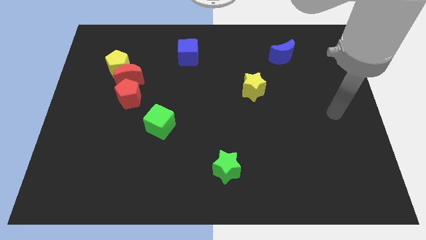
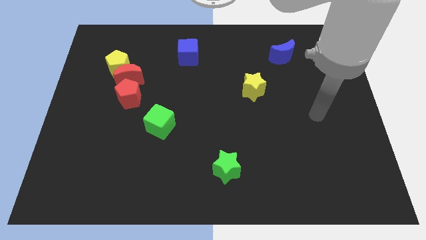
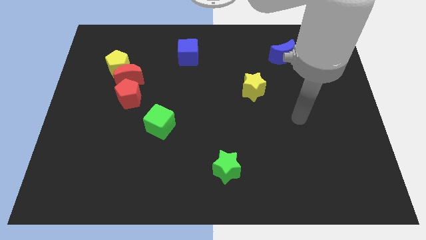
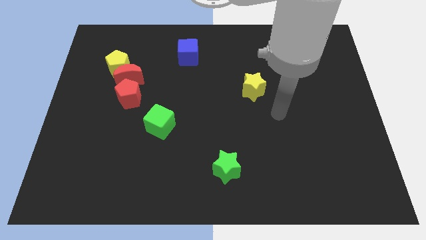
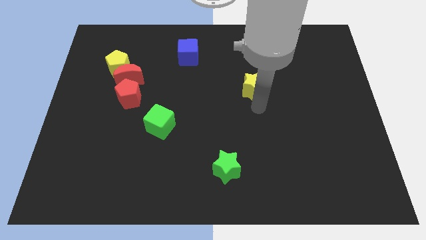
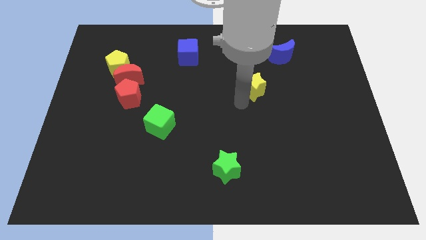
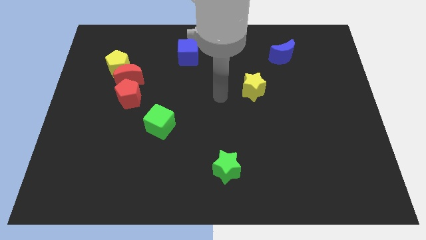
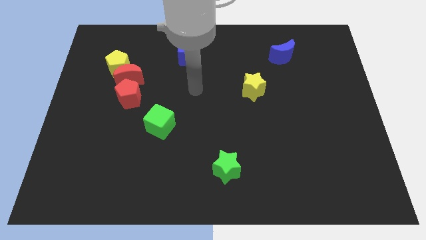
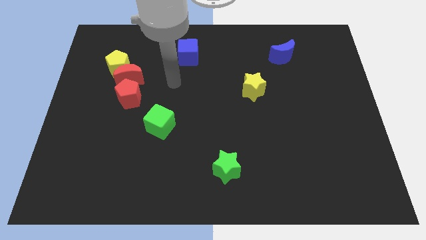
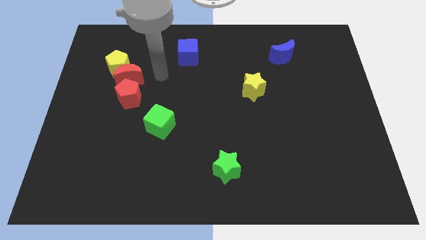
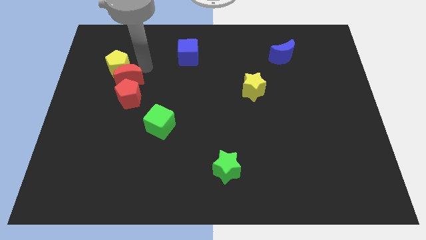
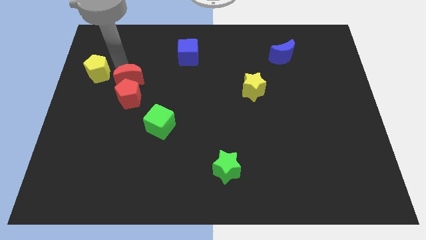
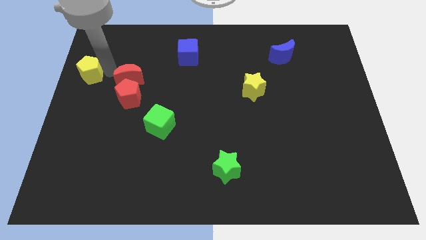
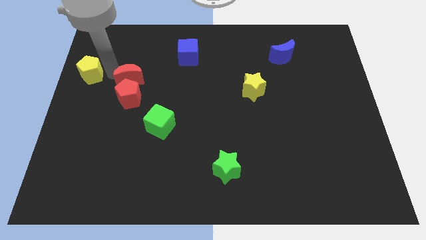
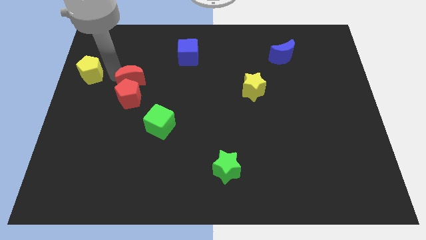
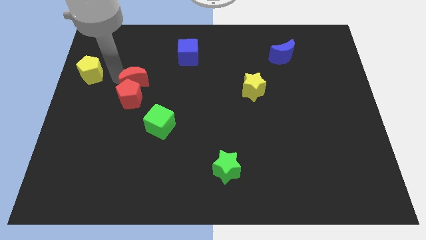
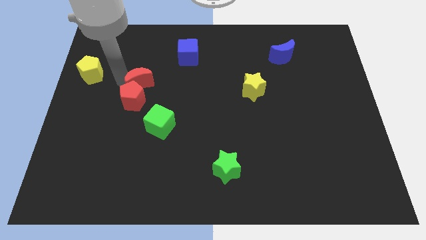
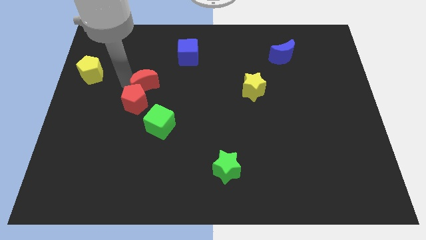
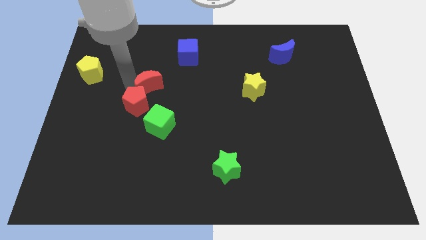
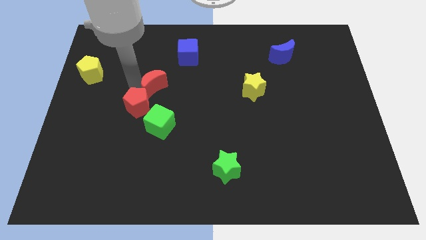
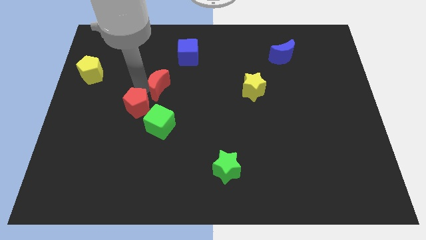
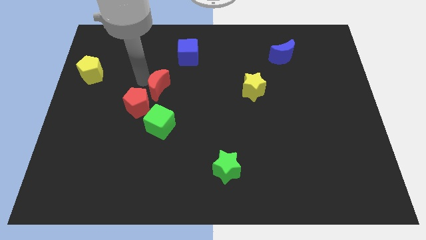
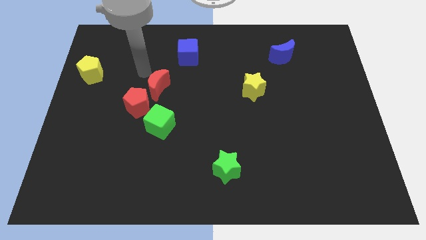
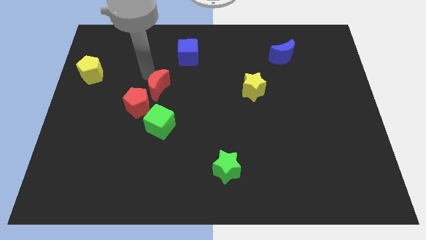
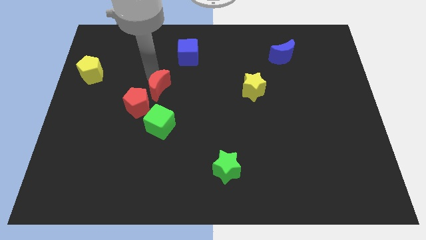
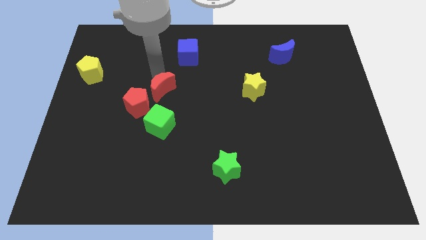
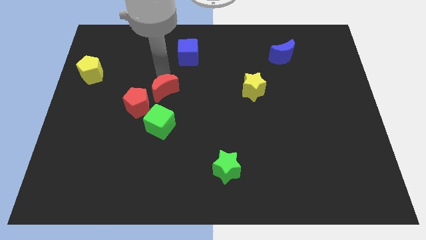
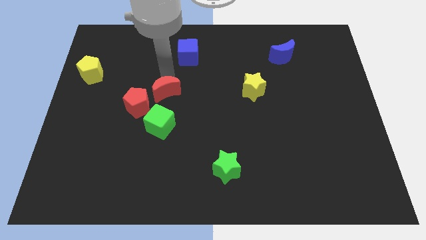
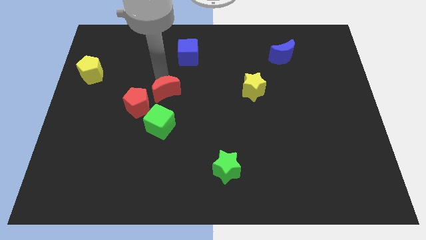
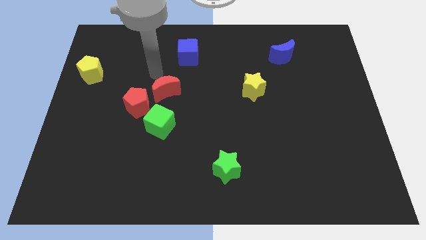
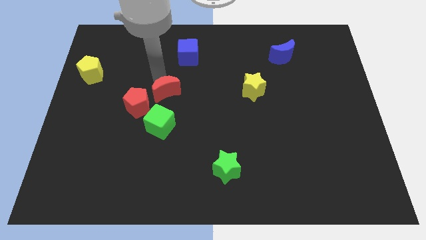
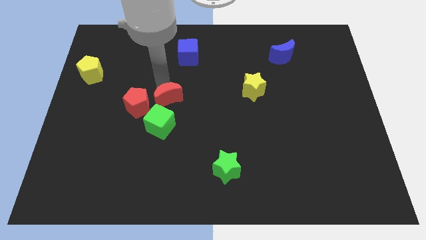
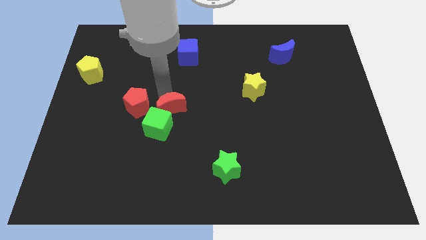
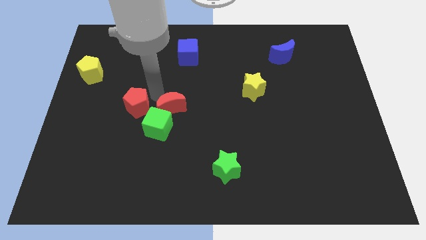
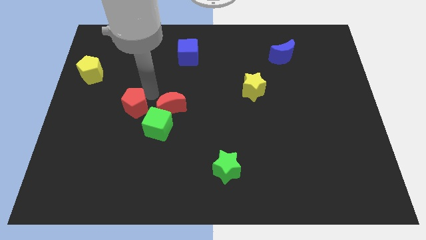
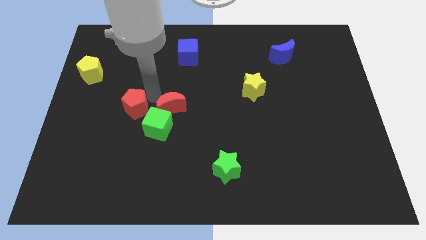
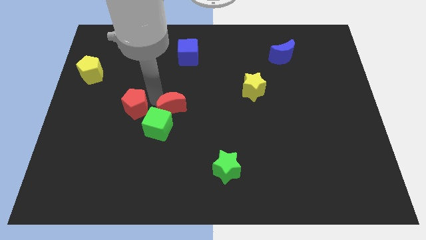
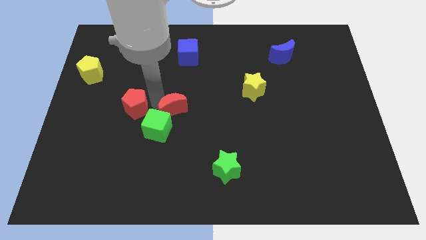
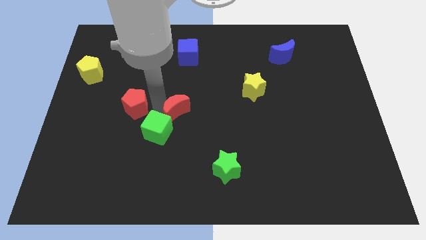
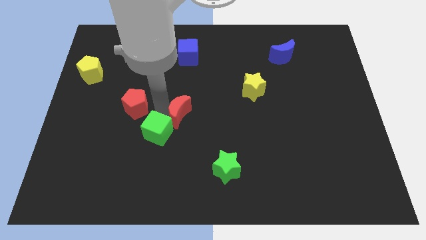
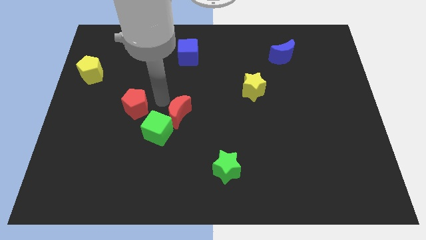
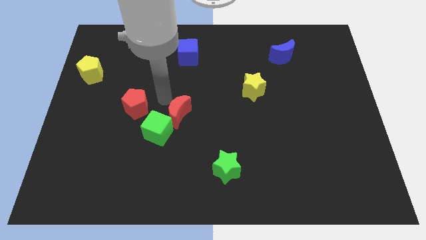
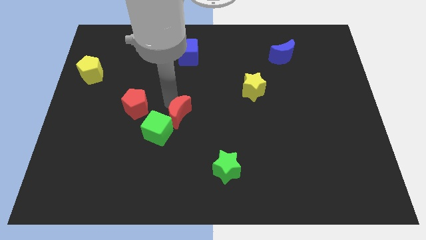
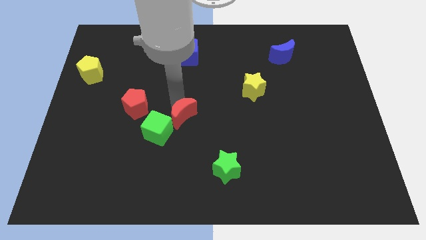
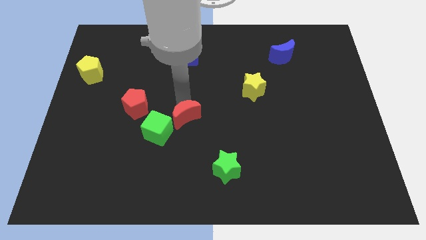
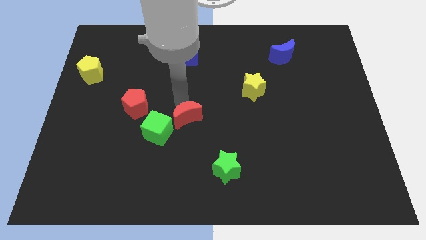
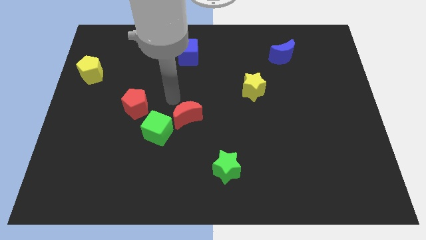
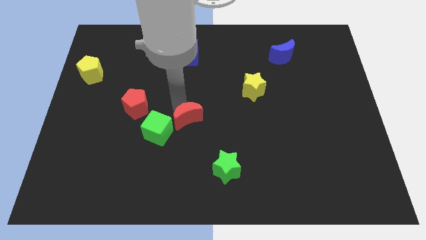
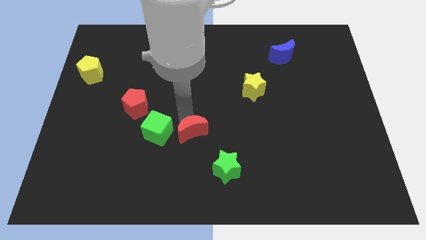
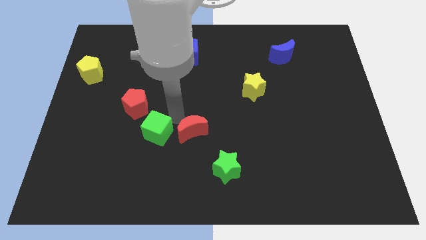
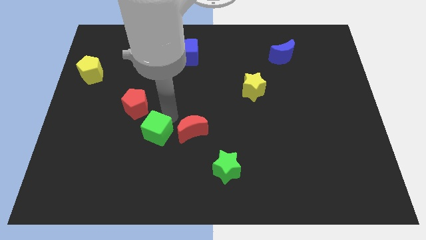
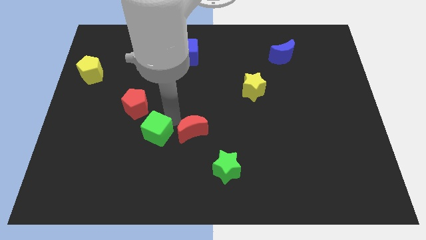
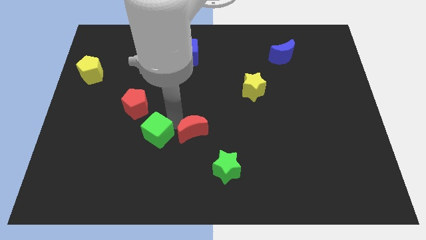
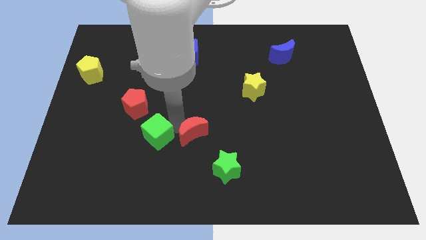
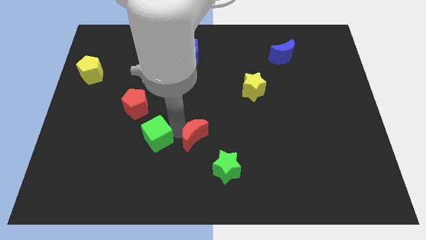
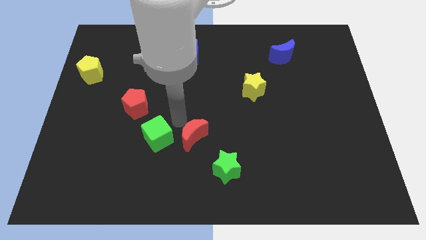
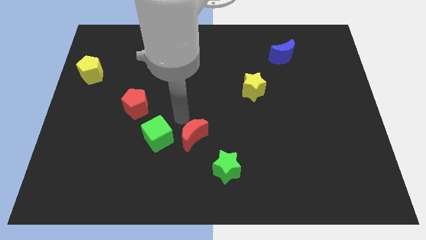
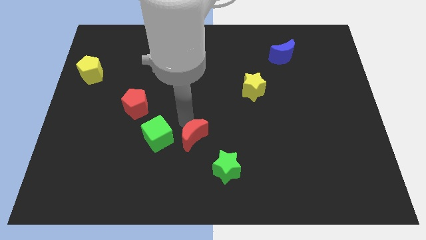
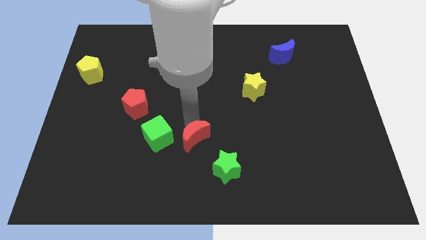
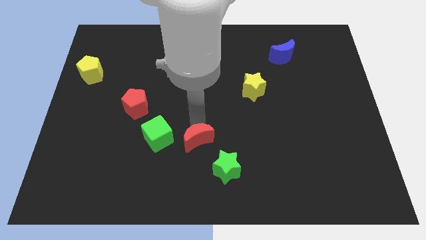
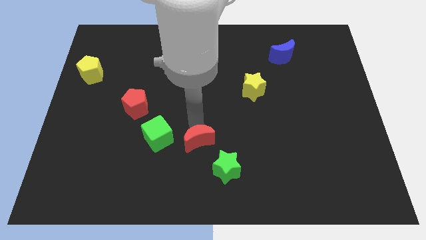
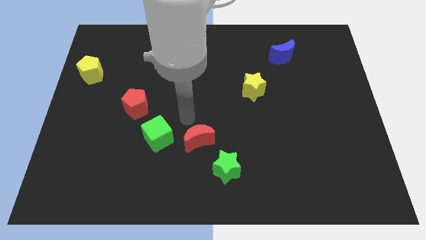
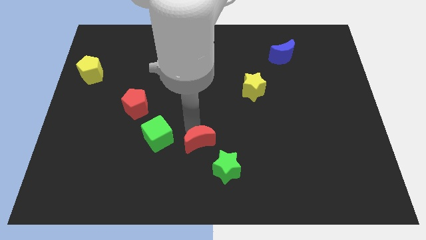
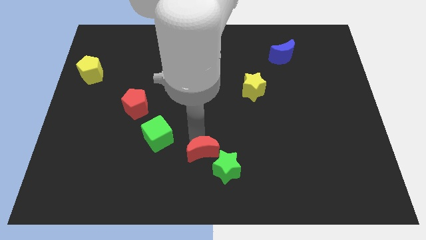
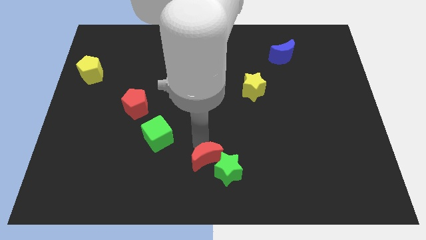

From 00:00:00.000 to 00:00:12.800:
move the red moon to the bottom side

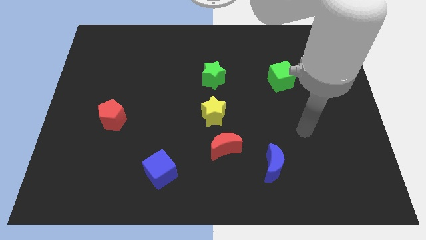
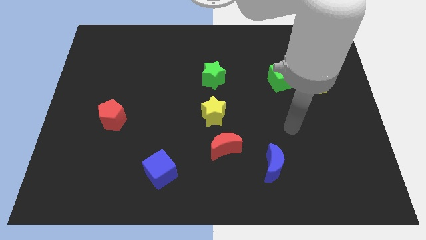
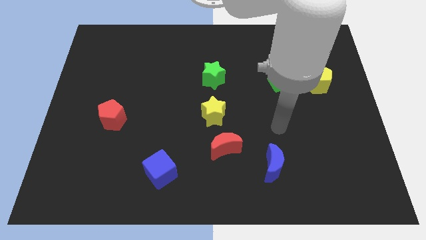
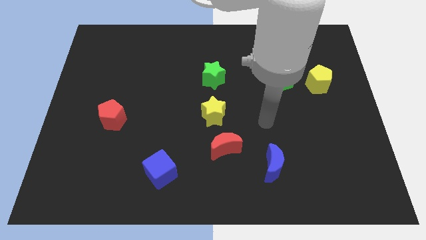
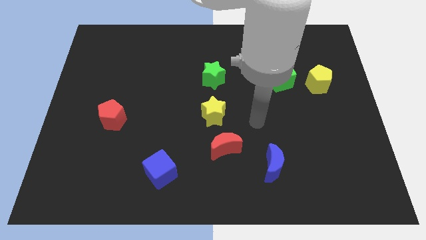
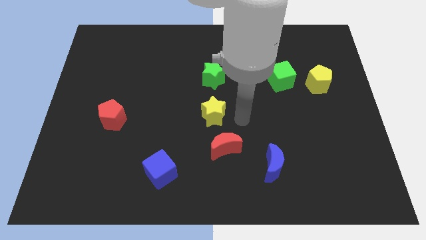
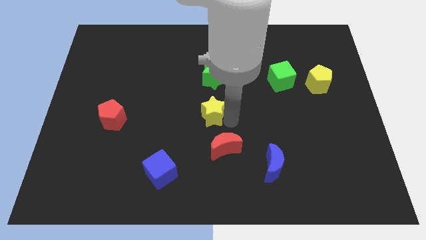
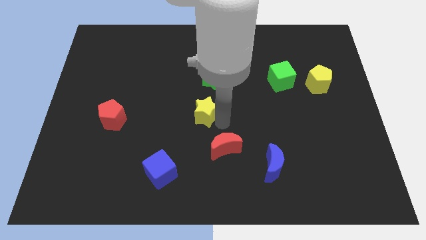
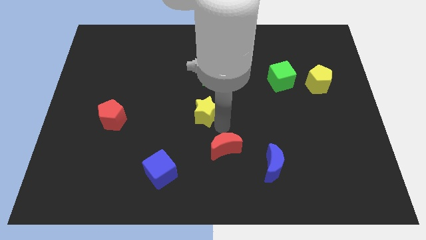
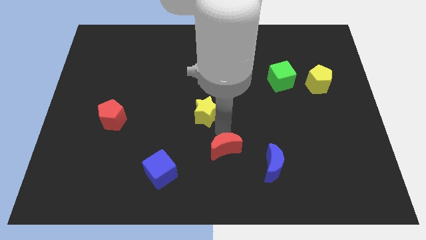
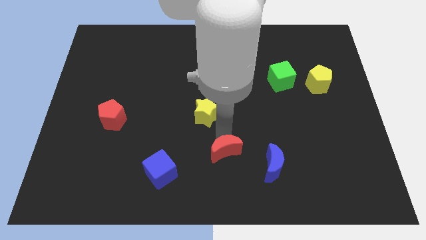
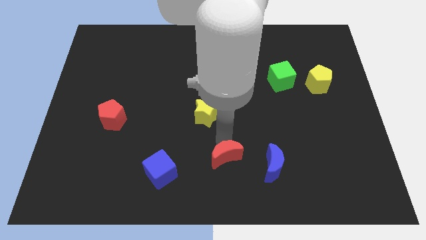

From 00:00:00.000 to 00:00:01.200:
slide the red moon to the bottom side
